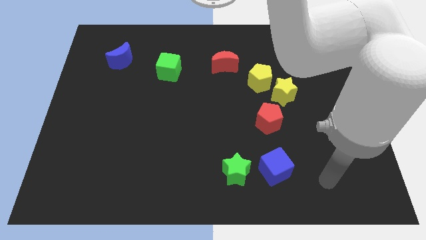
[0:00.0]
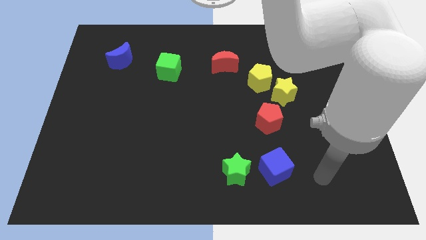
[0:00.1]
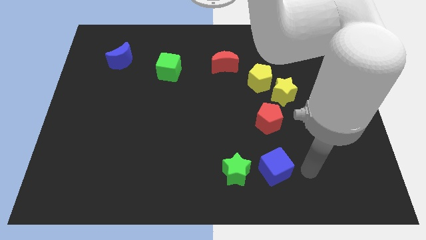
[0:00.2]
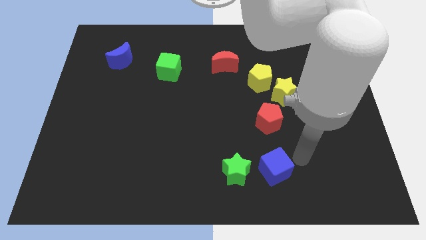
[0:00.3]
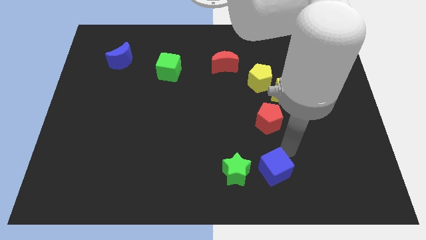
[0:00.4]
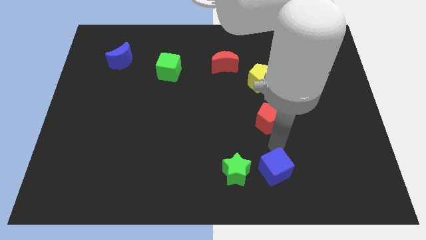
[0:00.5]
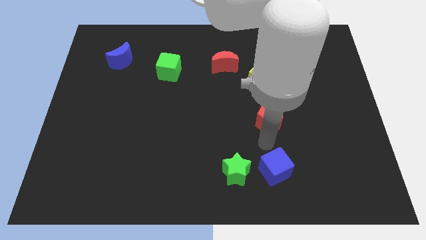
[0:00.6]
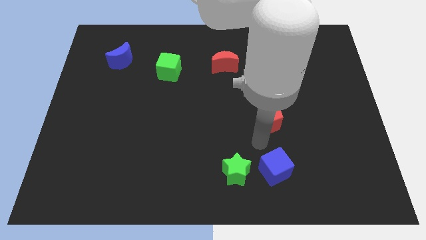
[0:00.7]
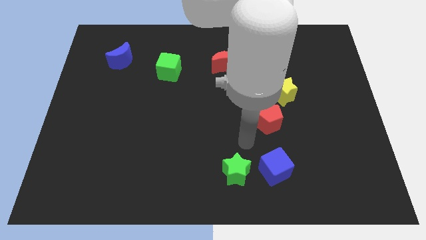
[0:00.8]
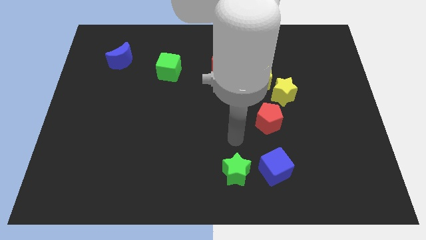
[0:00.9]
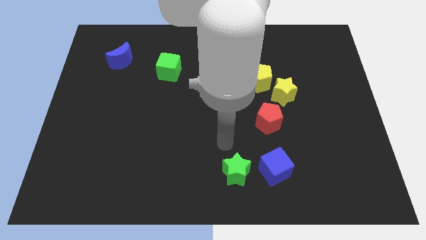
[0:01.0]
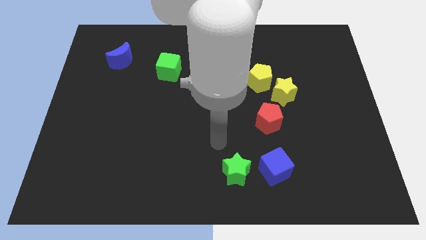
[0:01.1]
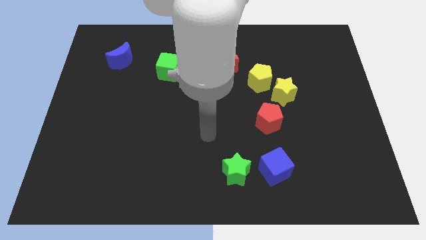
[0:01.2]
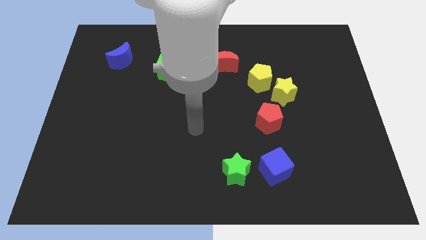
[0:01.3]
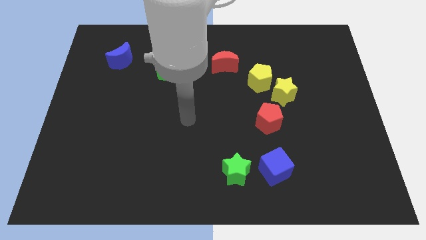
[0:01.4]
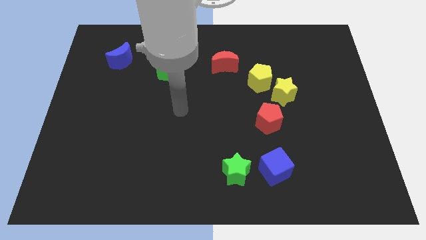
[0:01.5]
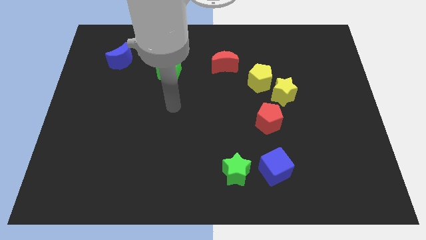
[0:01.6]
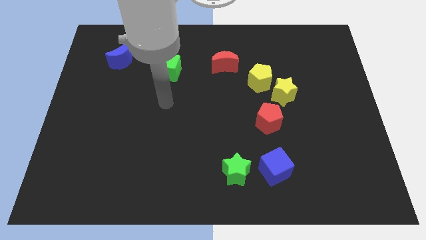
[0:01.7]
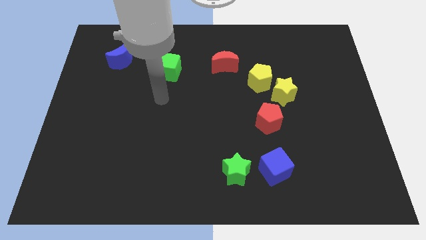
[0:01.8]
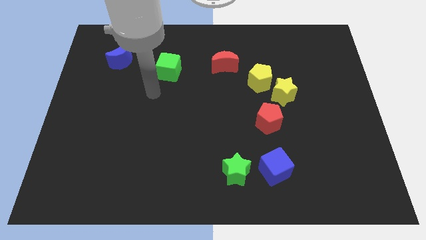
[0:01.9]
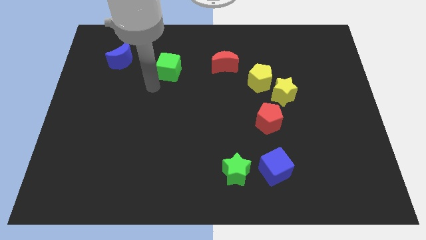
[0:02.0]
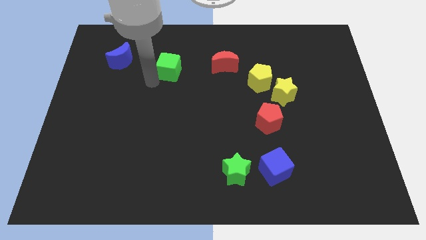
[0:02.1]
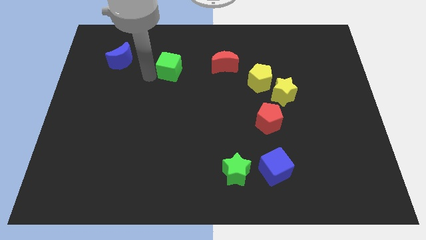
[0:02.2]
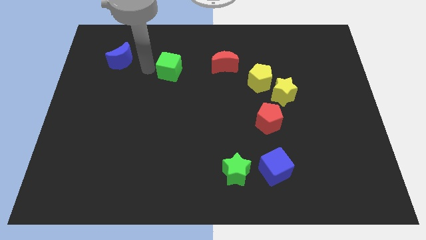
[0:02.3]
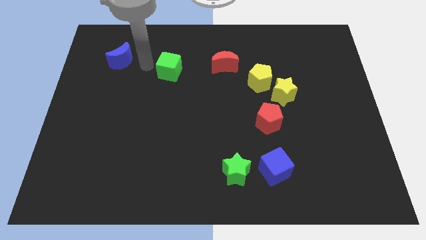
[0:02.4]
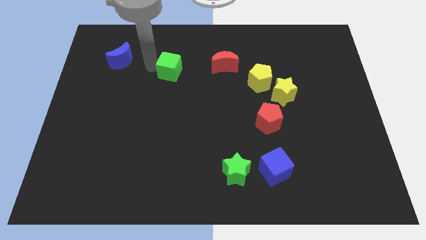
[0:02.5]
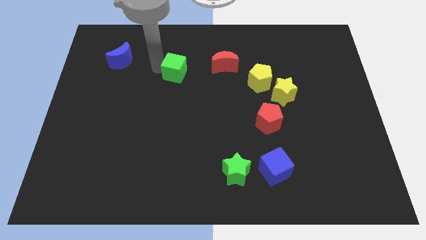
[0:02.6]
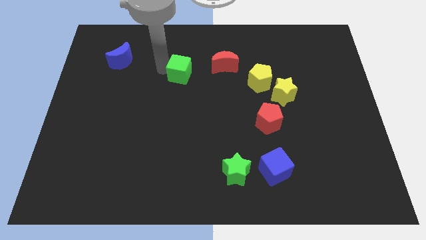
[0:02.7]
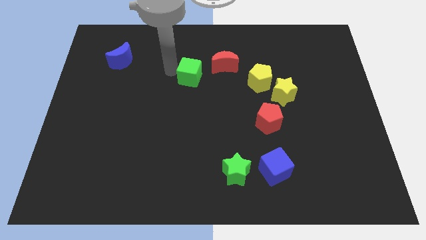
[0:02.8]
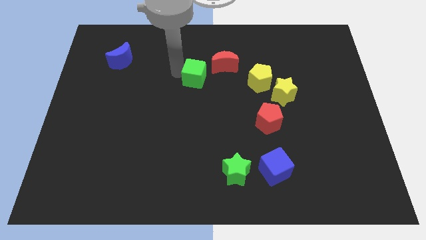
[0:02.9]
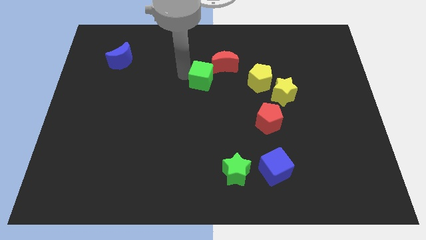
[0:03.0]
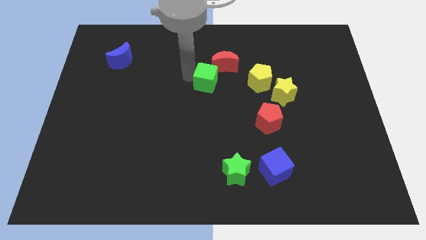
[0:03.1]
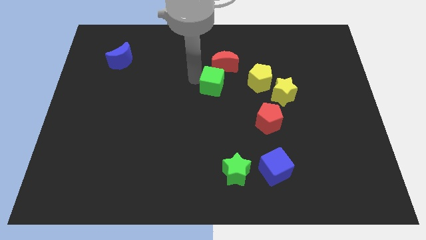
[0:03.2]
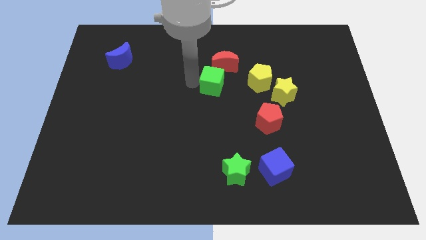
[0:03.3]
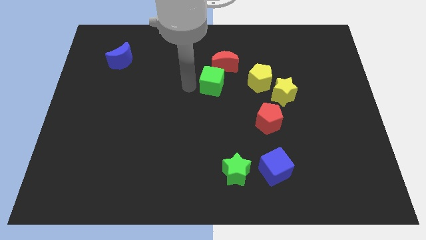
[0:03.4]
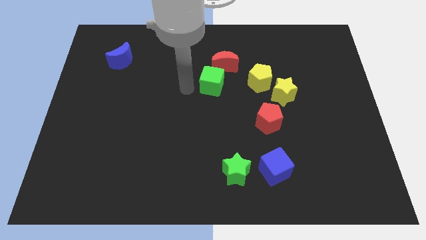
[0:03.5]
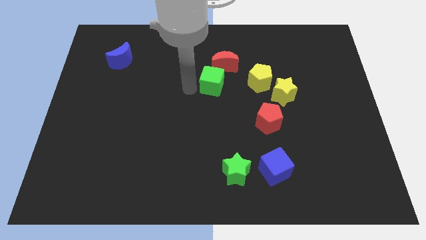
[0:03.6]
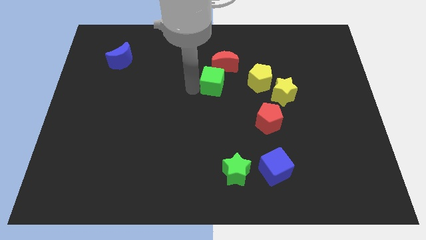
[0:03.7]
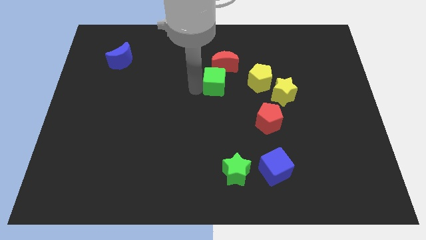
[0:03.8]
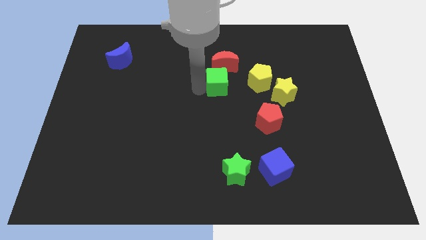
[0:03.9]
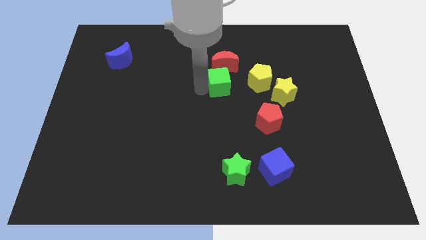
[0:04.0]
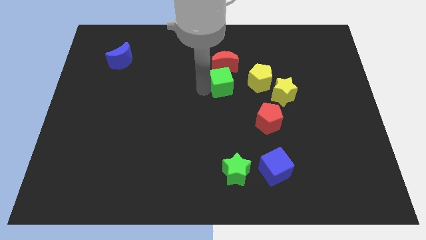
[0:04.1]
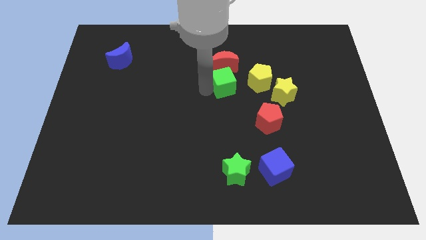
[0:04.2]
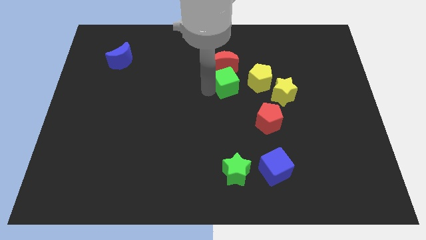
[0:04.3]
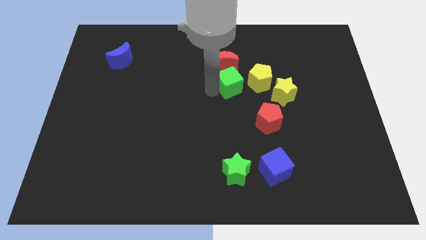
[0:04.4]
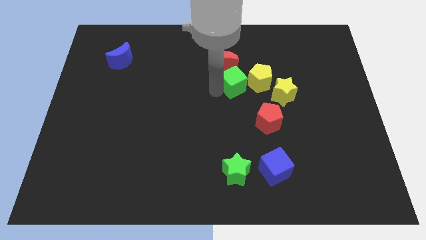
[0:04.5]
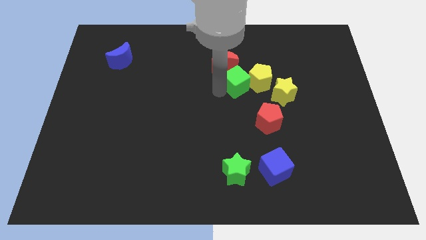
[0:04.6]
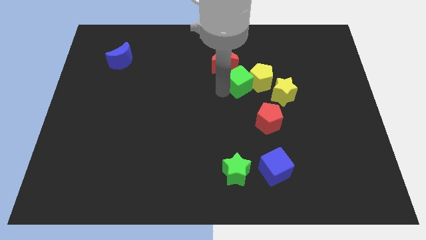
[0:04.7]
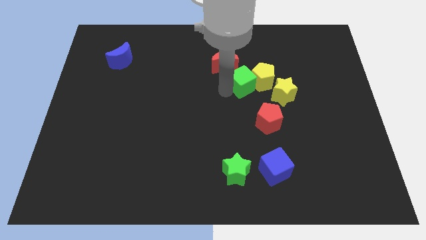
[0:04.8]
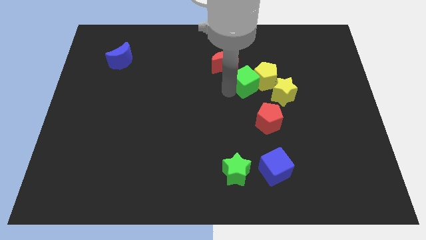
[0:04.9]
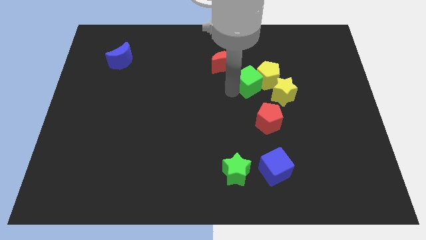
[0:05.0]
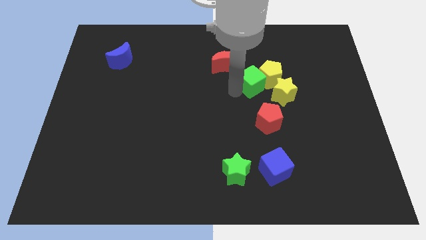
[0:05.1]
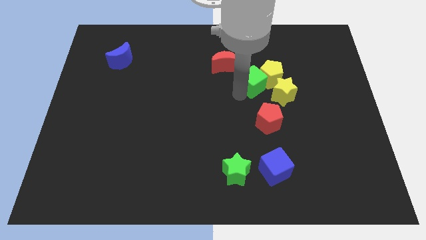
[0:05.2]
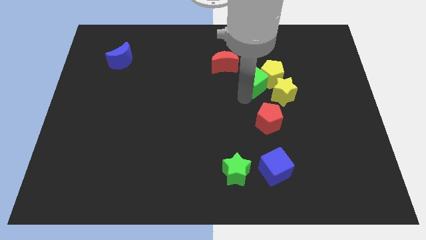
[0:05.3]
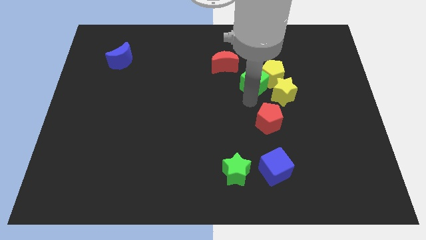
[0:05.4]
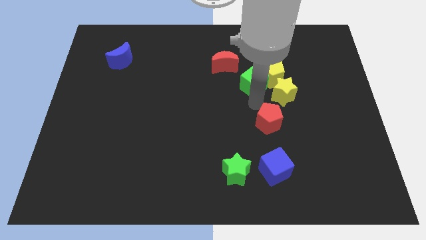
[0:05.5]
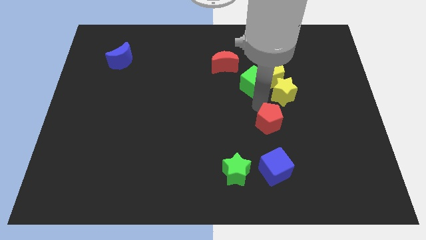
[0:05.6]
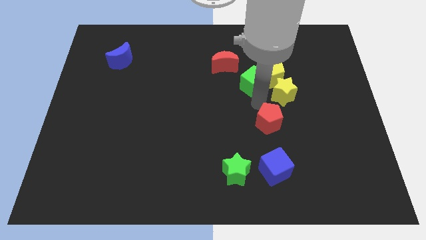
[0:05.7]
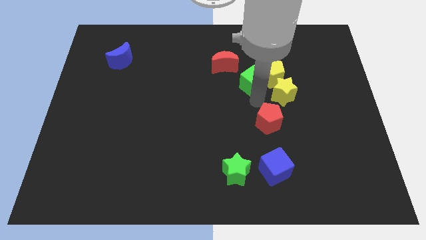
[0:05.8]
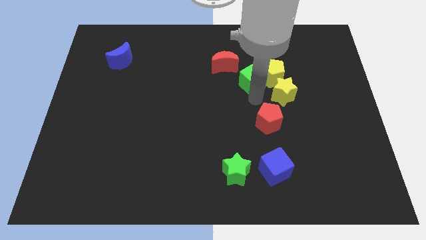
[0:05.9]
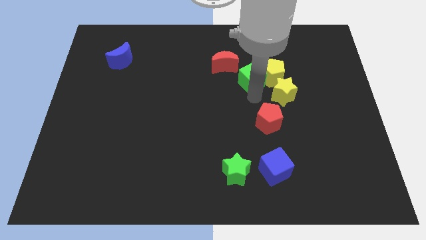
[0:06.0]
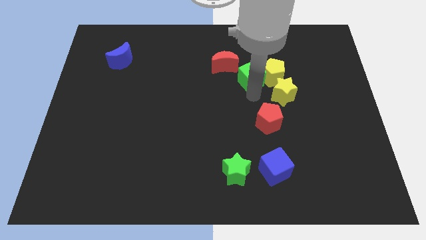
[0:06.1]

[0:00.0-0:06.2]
put the green cube to the right of the red moon

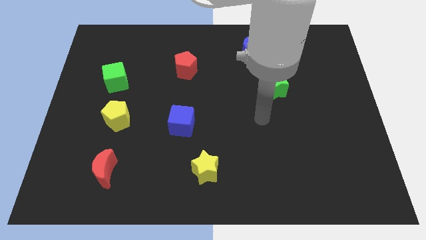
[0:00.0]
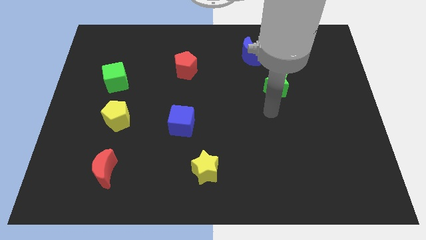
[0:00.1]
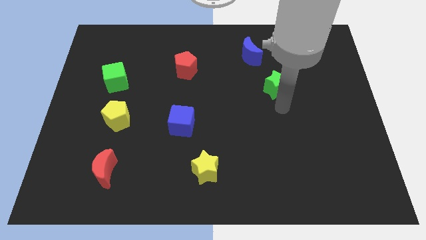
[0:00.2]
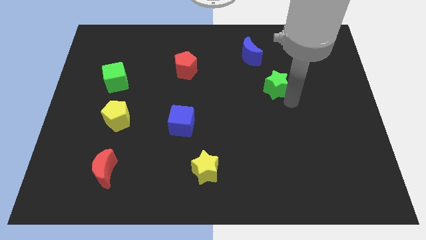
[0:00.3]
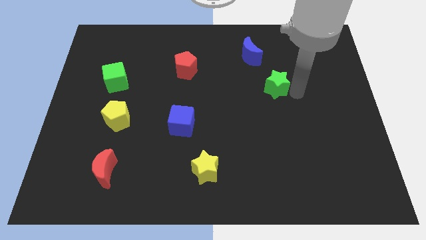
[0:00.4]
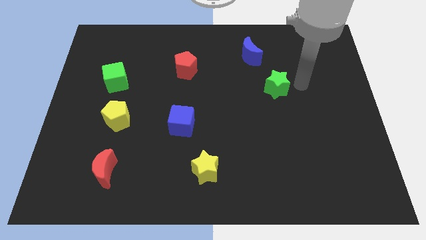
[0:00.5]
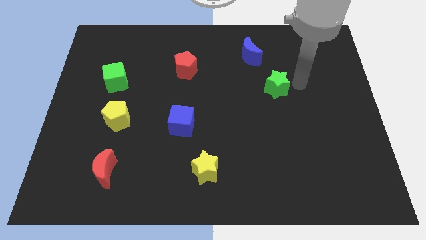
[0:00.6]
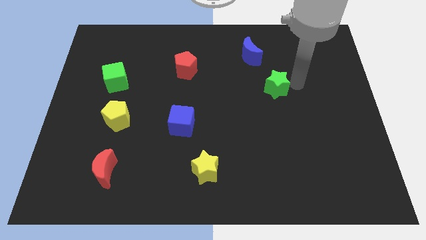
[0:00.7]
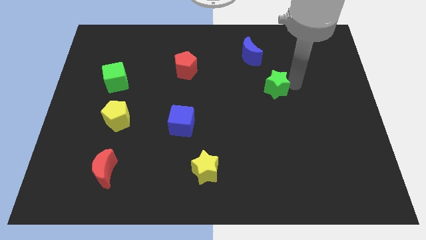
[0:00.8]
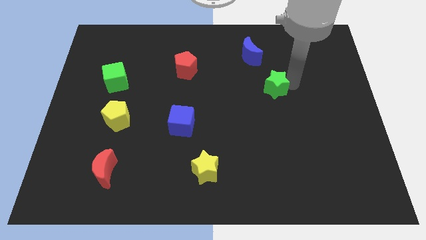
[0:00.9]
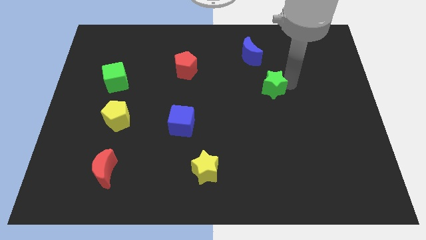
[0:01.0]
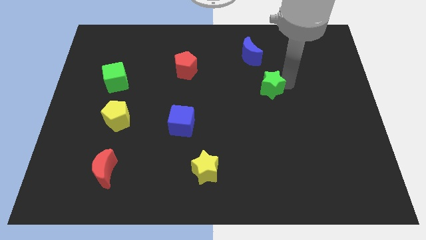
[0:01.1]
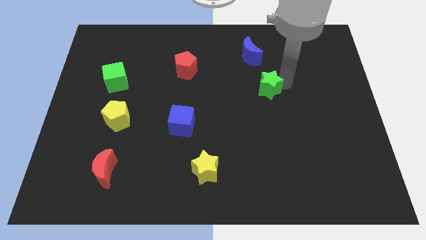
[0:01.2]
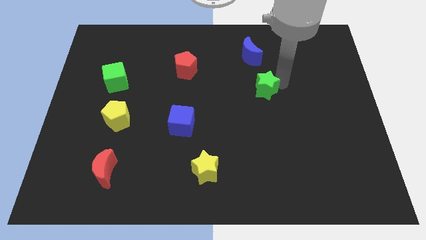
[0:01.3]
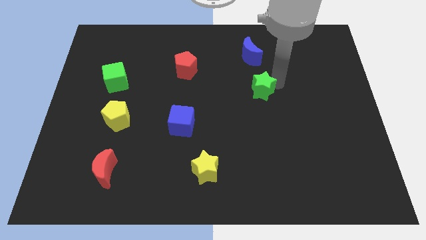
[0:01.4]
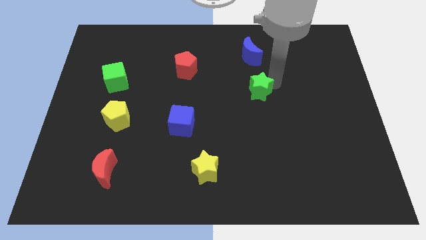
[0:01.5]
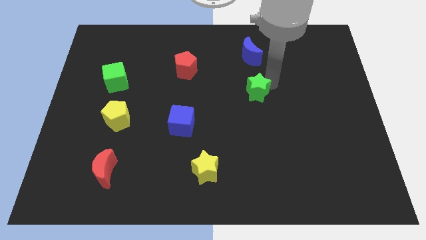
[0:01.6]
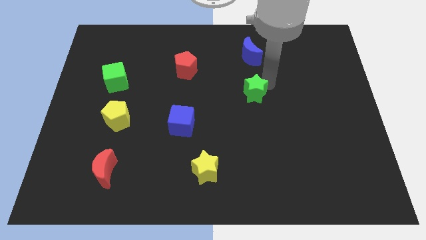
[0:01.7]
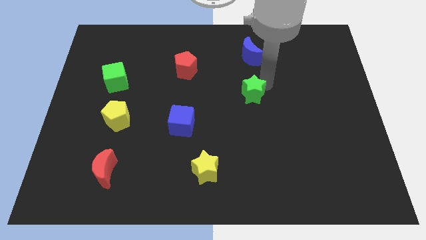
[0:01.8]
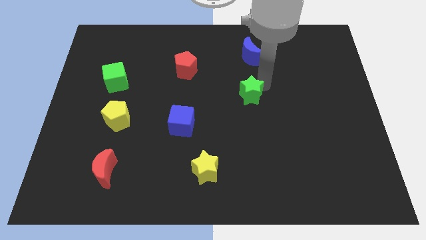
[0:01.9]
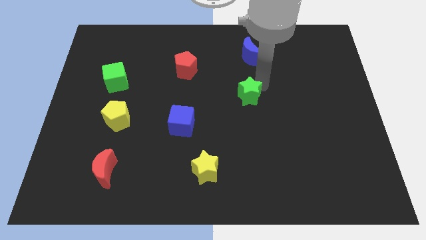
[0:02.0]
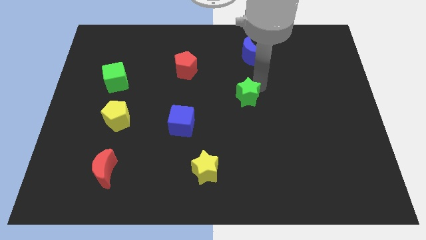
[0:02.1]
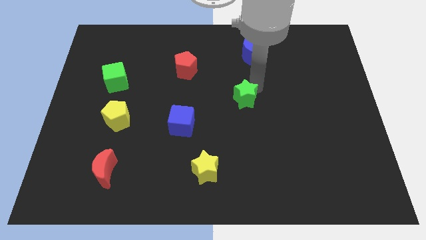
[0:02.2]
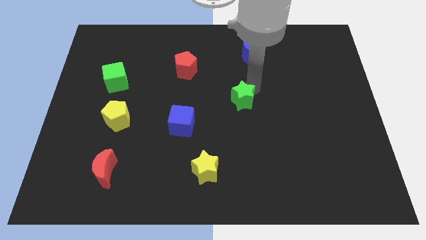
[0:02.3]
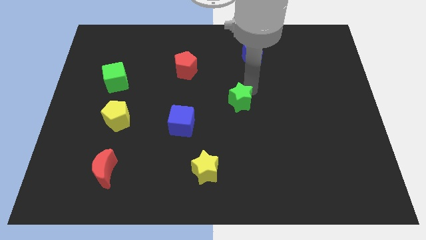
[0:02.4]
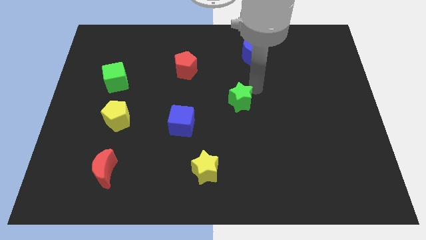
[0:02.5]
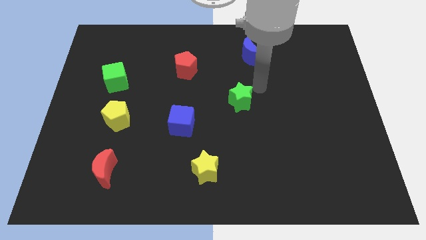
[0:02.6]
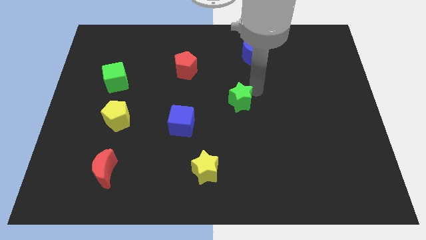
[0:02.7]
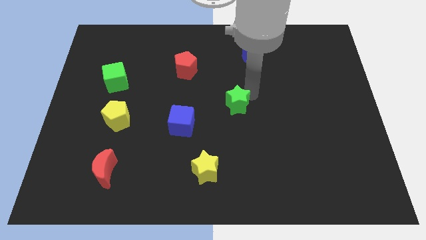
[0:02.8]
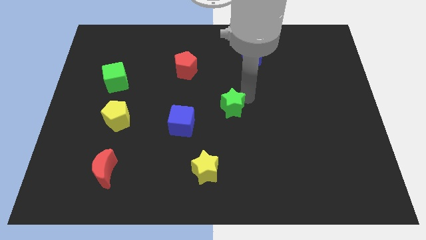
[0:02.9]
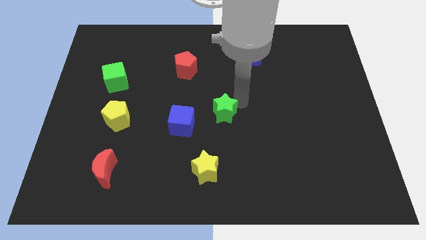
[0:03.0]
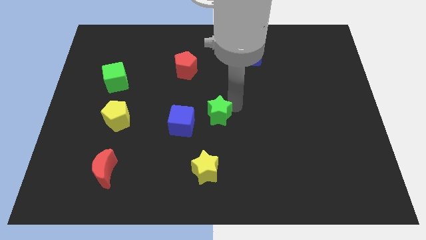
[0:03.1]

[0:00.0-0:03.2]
push the green star above the yellow star
